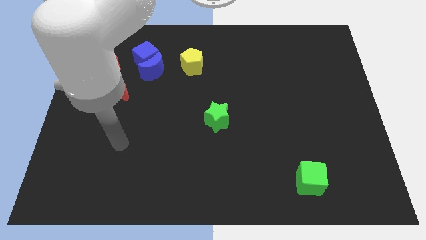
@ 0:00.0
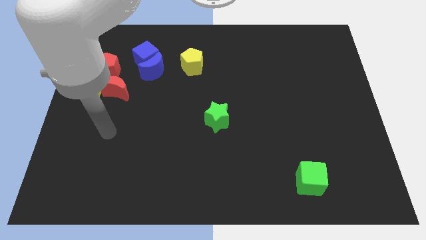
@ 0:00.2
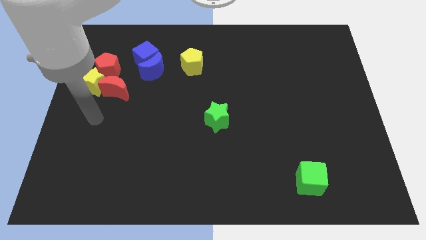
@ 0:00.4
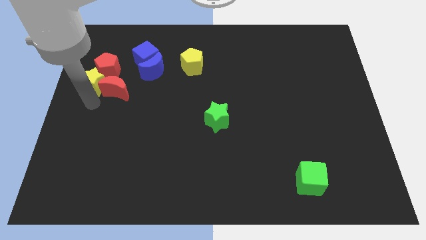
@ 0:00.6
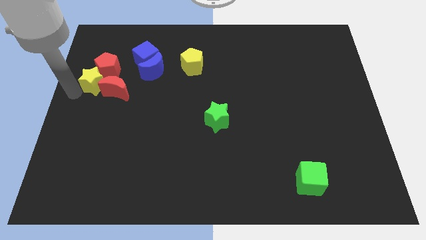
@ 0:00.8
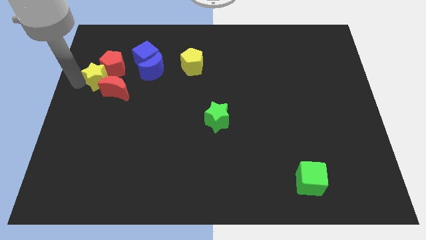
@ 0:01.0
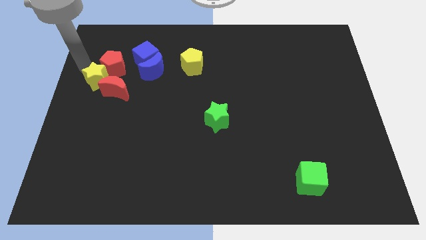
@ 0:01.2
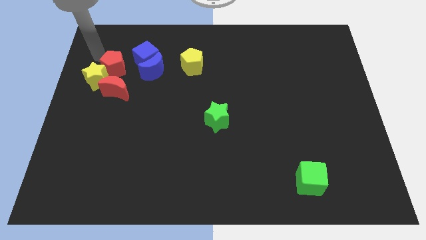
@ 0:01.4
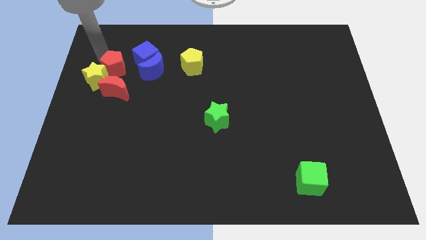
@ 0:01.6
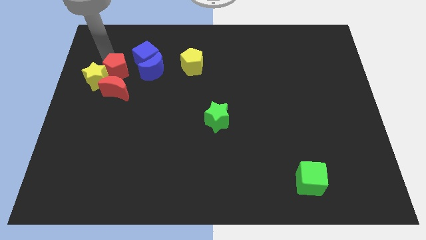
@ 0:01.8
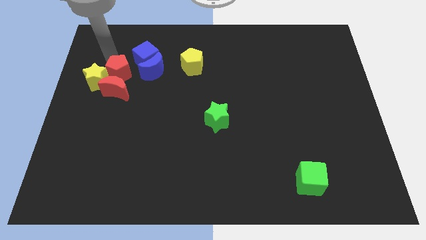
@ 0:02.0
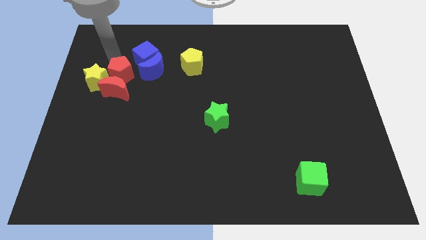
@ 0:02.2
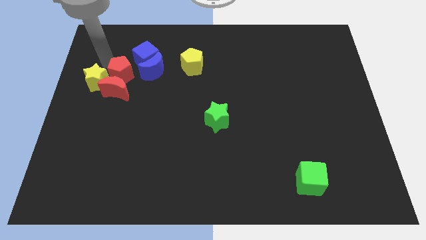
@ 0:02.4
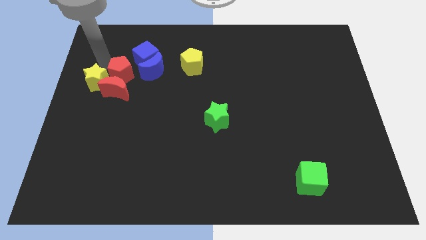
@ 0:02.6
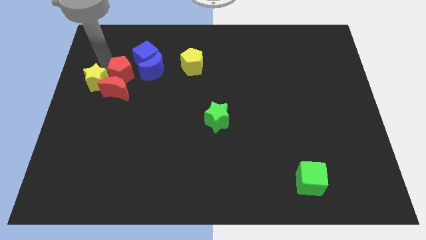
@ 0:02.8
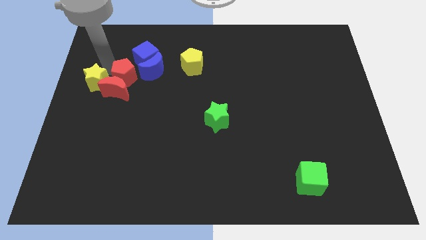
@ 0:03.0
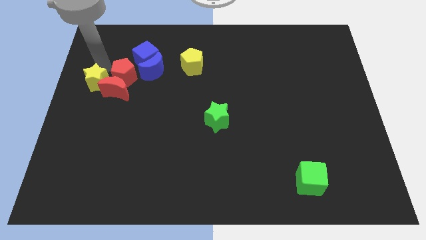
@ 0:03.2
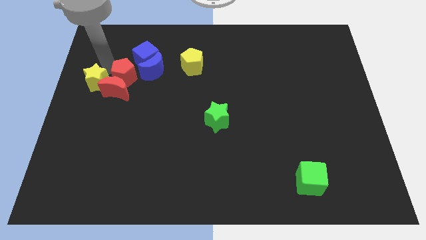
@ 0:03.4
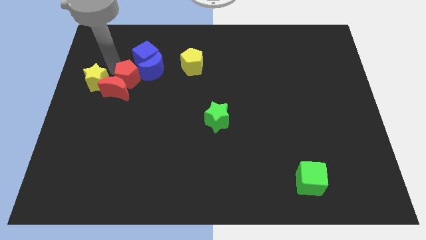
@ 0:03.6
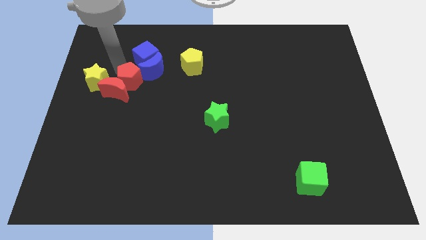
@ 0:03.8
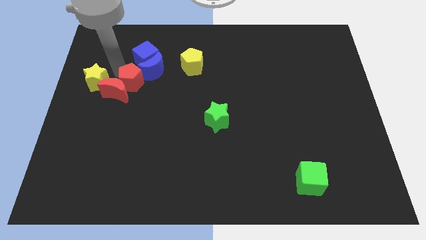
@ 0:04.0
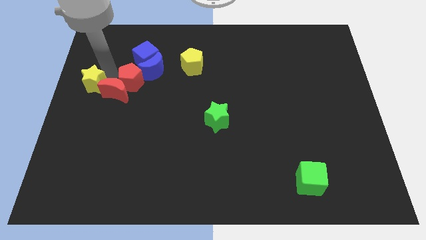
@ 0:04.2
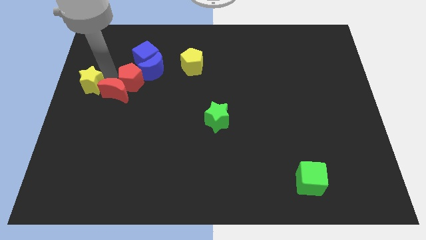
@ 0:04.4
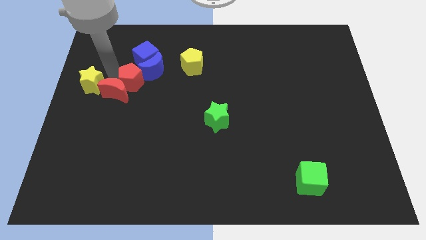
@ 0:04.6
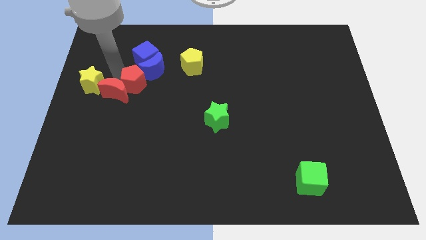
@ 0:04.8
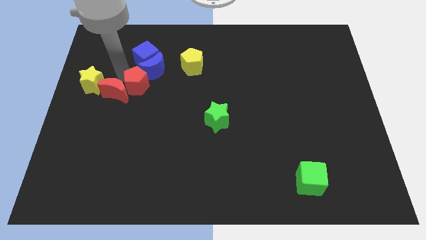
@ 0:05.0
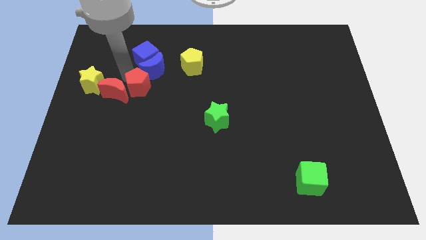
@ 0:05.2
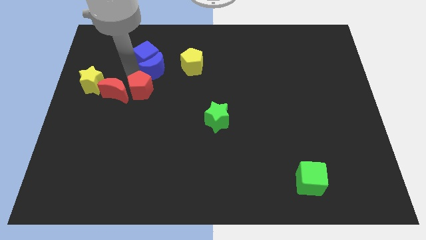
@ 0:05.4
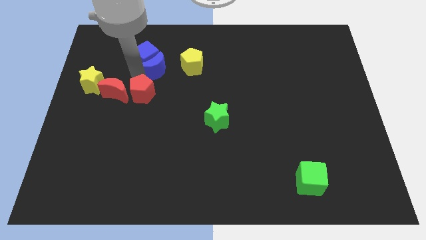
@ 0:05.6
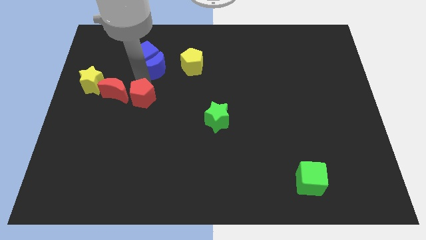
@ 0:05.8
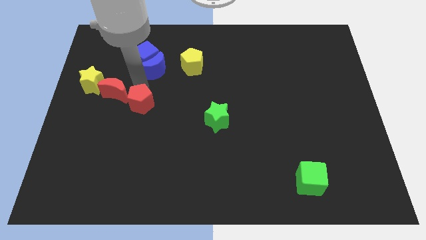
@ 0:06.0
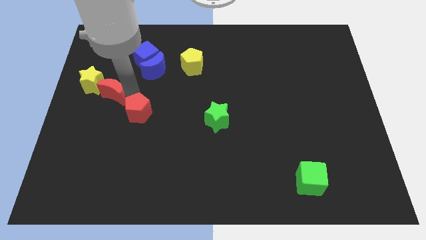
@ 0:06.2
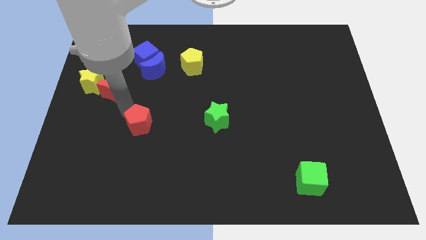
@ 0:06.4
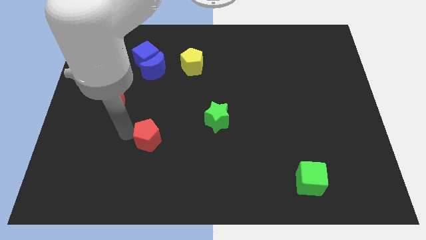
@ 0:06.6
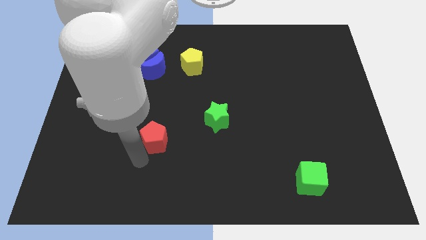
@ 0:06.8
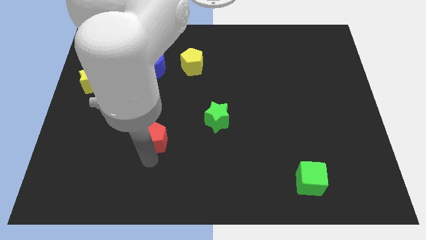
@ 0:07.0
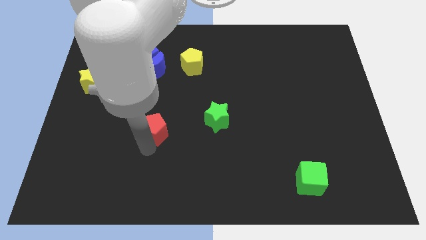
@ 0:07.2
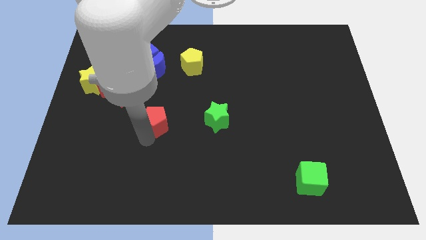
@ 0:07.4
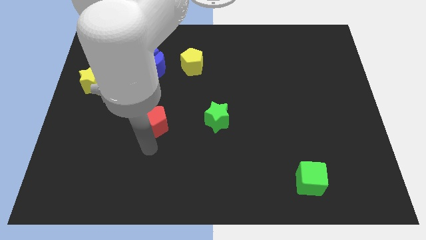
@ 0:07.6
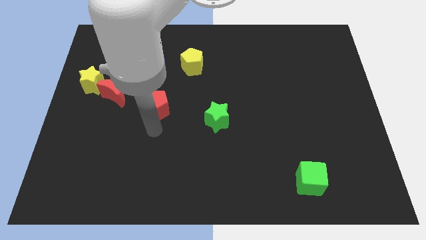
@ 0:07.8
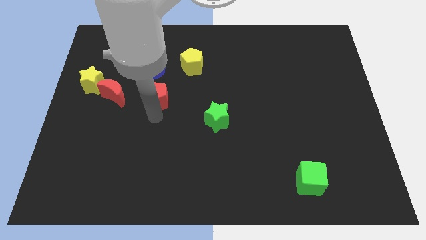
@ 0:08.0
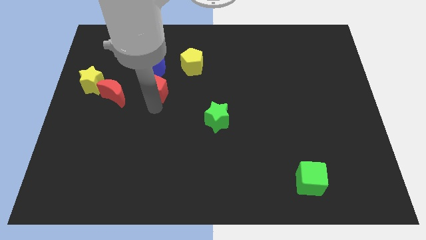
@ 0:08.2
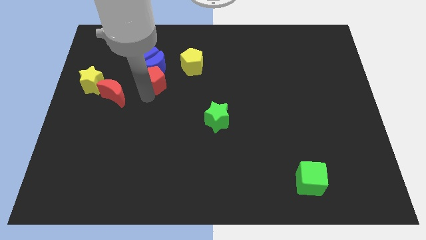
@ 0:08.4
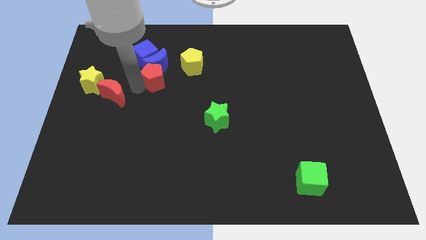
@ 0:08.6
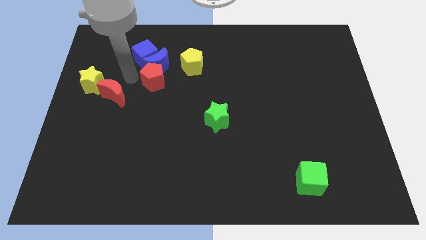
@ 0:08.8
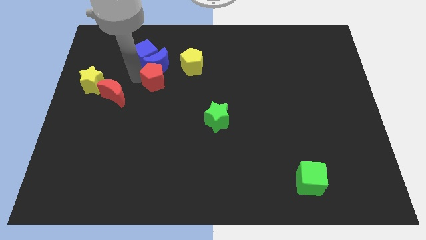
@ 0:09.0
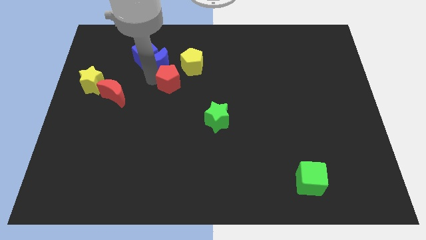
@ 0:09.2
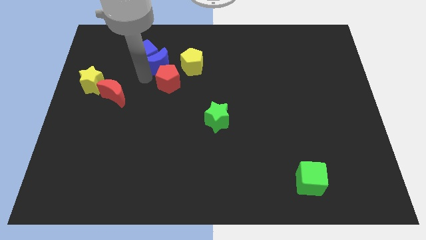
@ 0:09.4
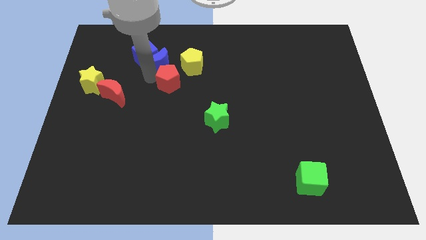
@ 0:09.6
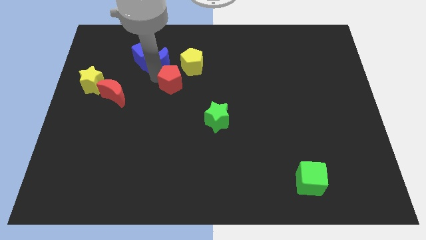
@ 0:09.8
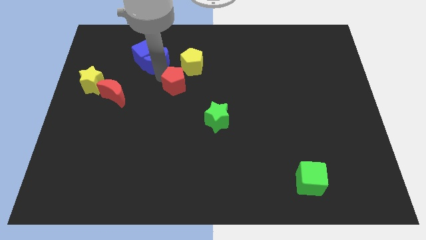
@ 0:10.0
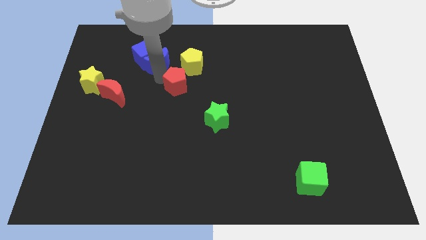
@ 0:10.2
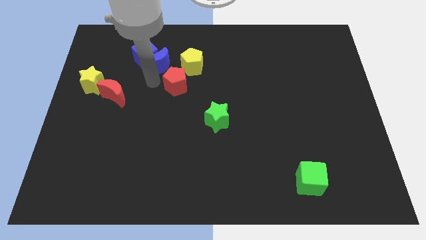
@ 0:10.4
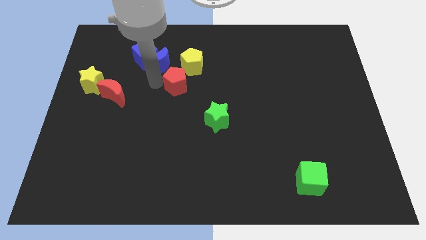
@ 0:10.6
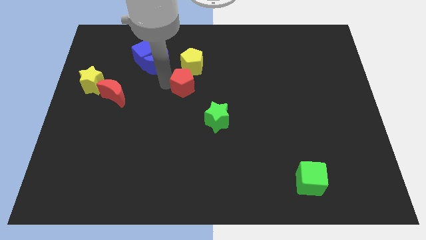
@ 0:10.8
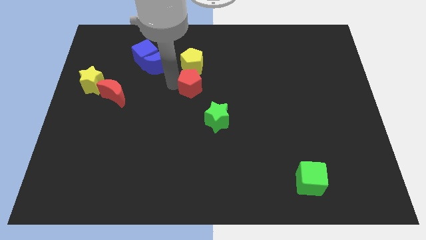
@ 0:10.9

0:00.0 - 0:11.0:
push the red pentagon to the right

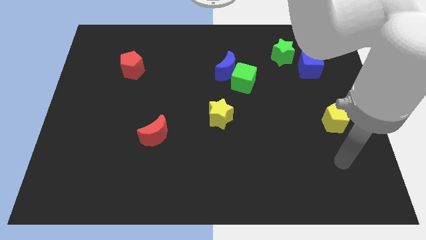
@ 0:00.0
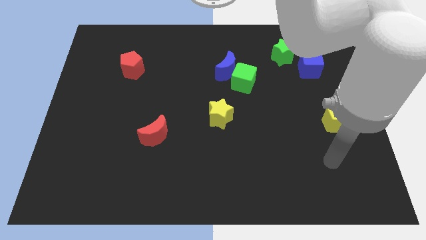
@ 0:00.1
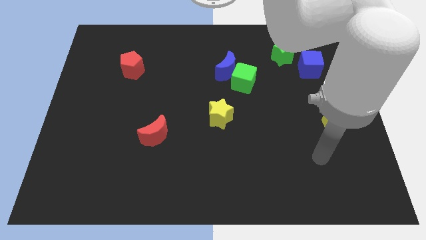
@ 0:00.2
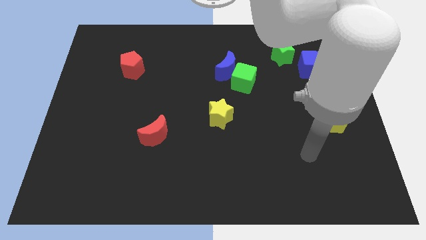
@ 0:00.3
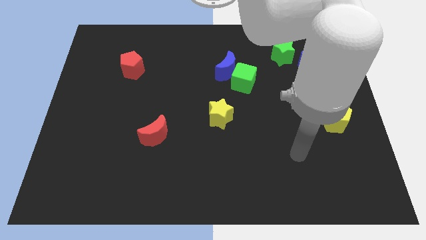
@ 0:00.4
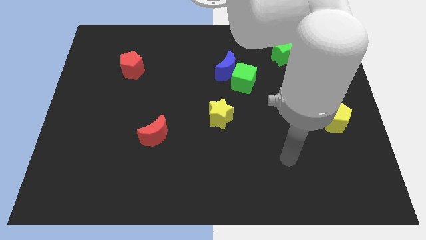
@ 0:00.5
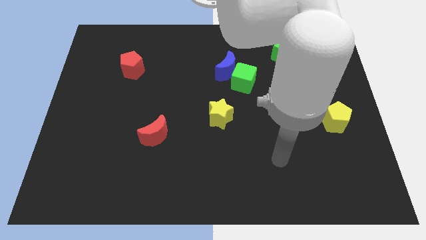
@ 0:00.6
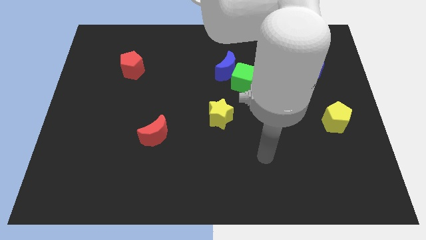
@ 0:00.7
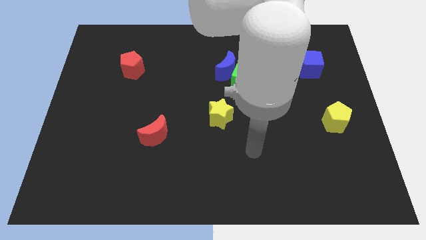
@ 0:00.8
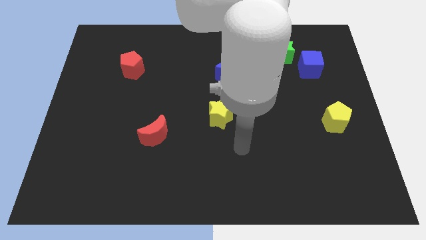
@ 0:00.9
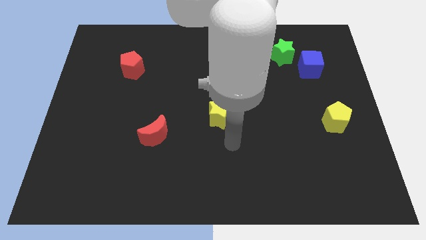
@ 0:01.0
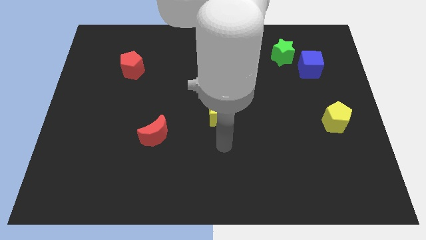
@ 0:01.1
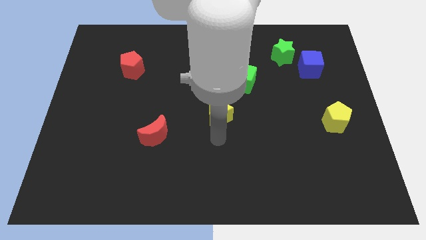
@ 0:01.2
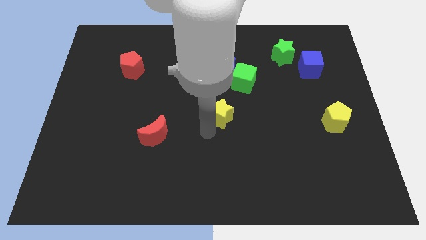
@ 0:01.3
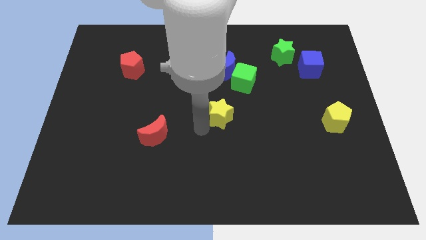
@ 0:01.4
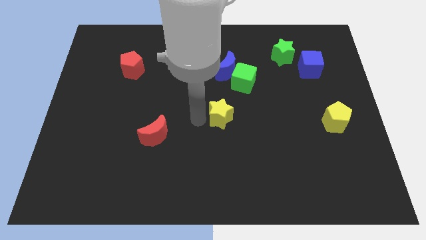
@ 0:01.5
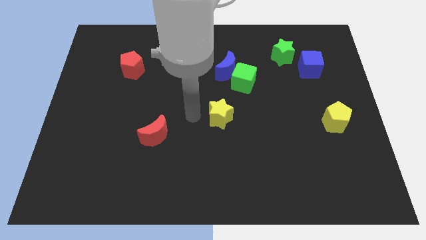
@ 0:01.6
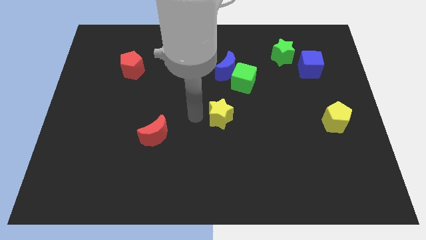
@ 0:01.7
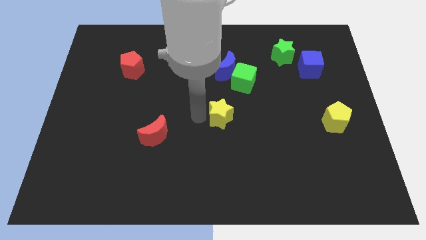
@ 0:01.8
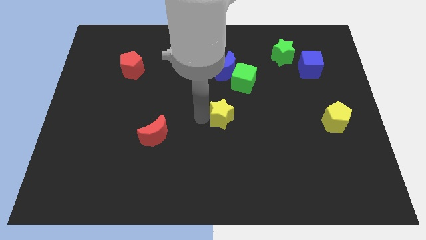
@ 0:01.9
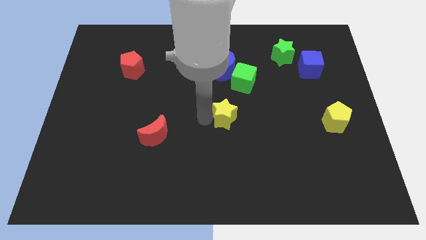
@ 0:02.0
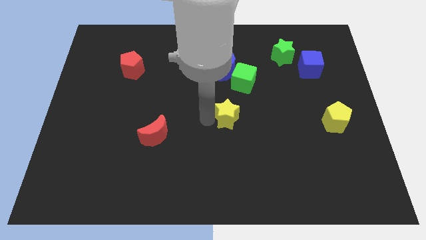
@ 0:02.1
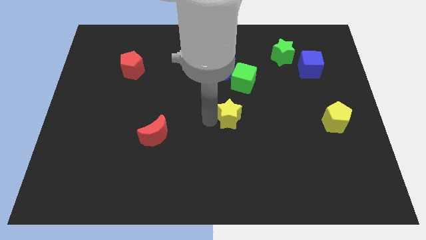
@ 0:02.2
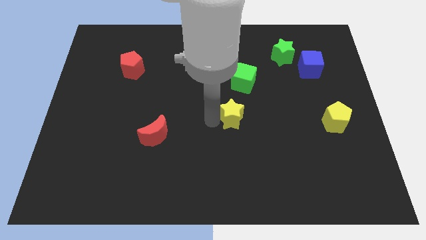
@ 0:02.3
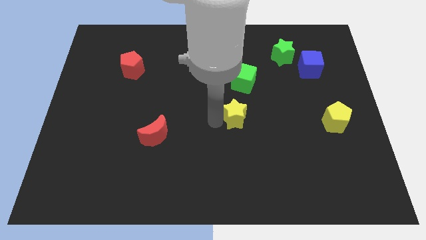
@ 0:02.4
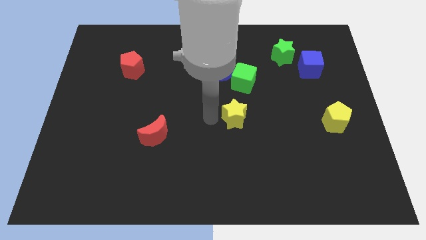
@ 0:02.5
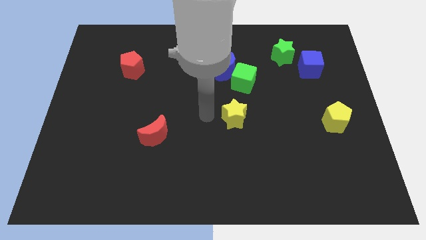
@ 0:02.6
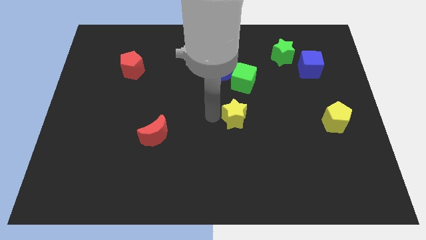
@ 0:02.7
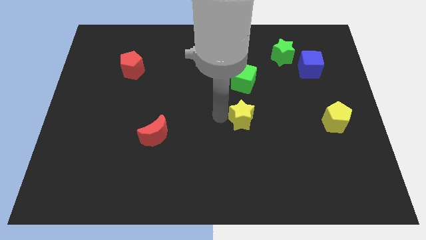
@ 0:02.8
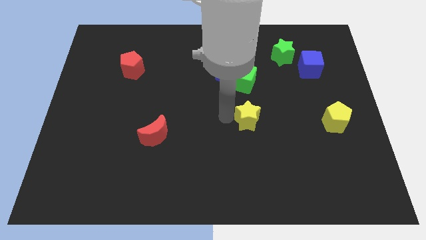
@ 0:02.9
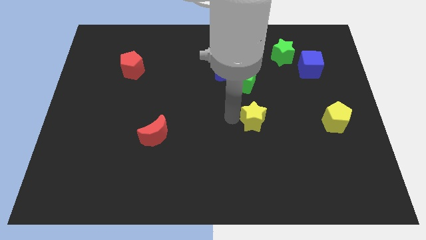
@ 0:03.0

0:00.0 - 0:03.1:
push the yellow star right a little bit
